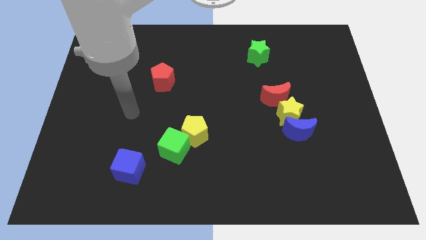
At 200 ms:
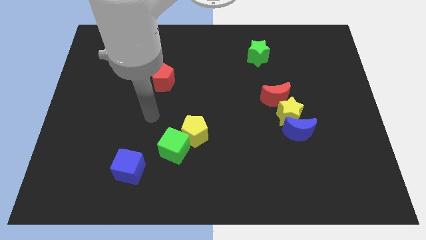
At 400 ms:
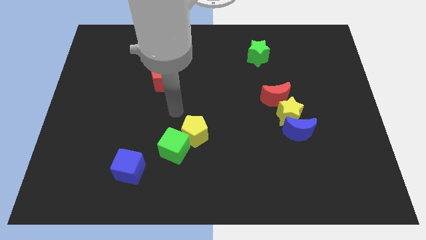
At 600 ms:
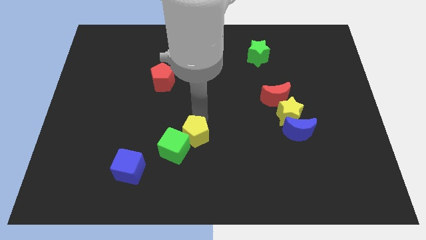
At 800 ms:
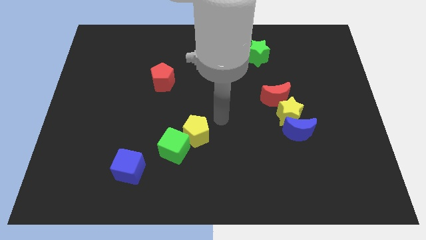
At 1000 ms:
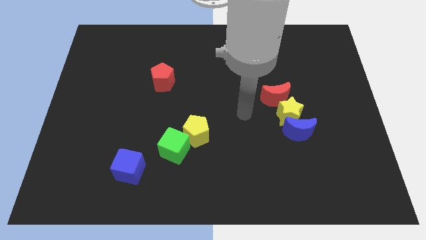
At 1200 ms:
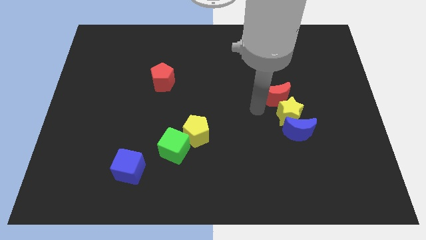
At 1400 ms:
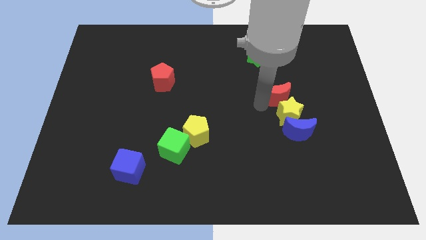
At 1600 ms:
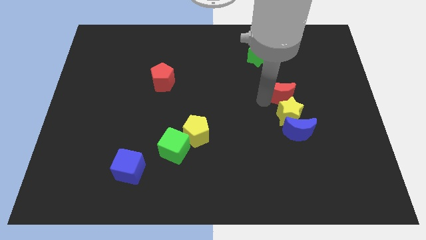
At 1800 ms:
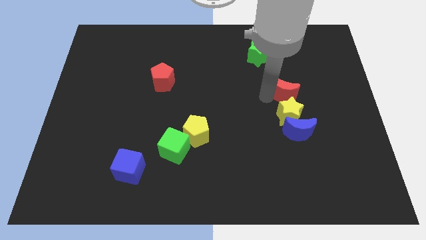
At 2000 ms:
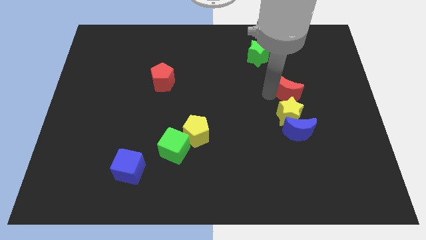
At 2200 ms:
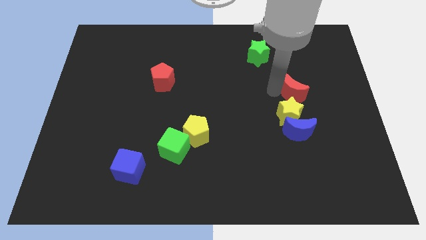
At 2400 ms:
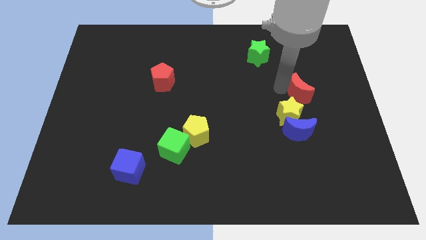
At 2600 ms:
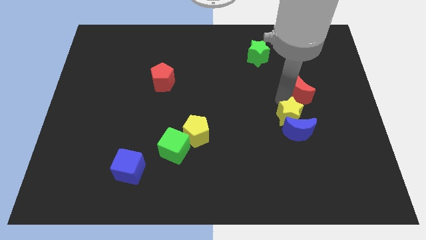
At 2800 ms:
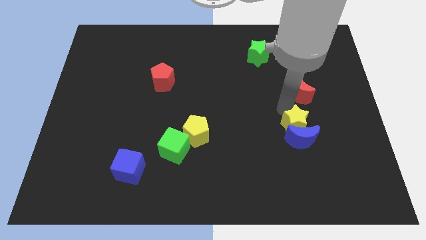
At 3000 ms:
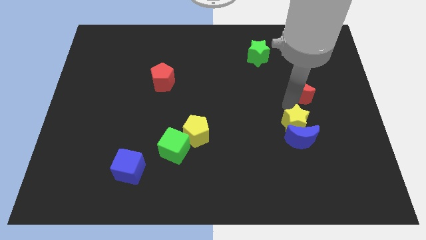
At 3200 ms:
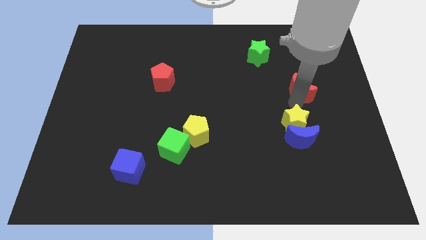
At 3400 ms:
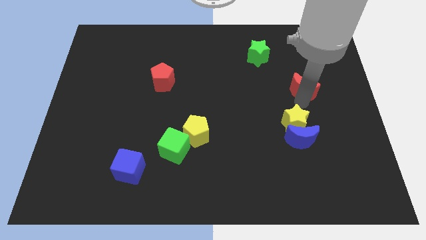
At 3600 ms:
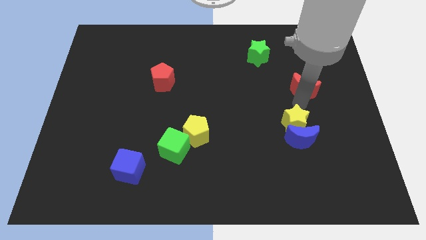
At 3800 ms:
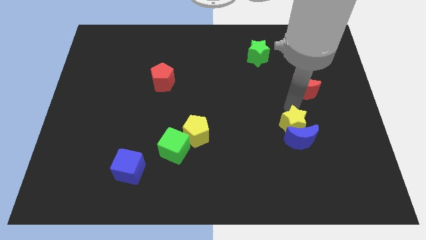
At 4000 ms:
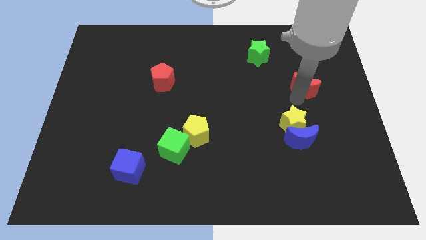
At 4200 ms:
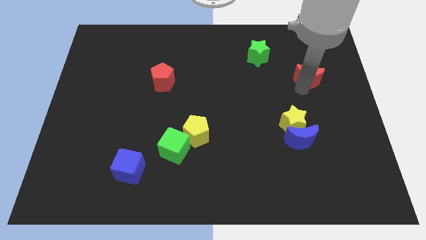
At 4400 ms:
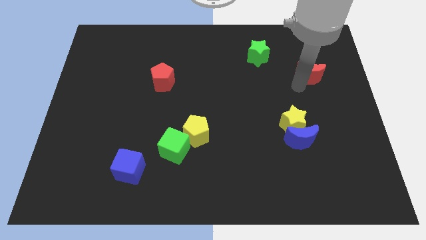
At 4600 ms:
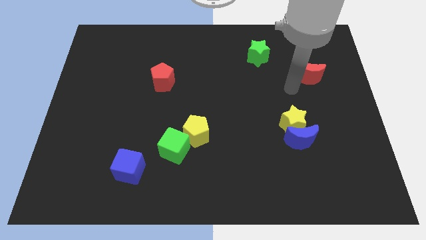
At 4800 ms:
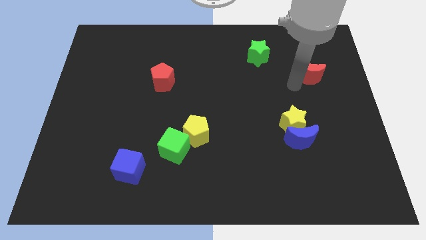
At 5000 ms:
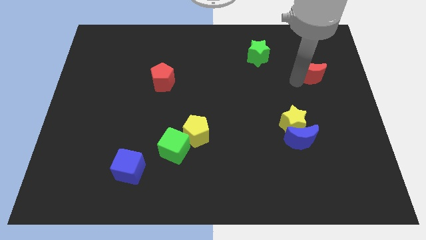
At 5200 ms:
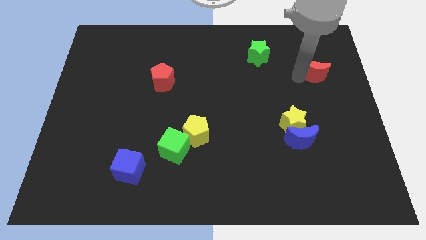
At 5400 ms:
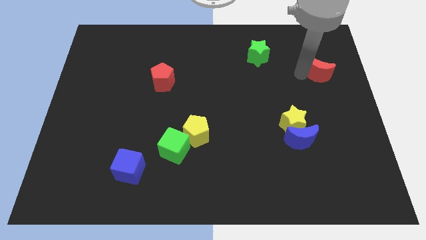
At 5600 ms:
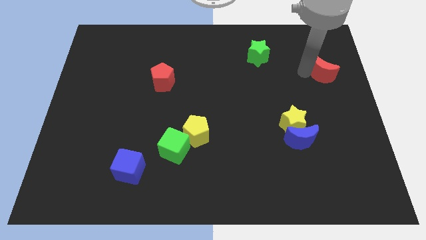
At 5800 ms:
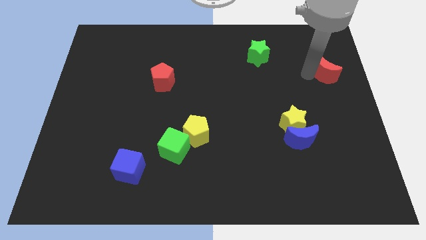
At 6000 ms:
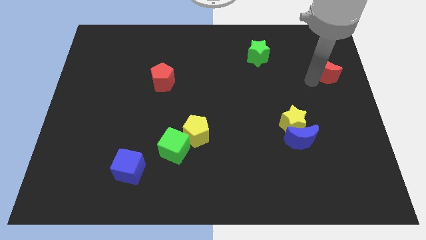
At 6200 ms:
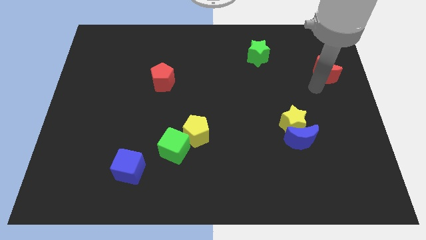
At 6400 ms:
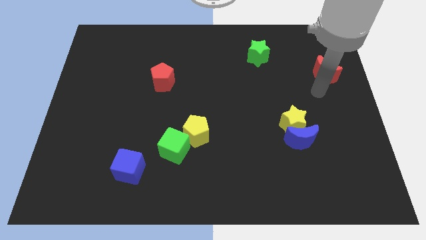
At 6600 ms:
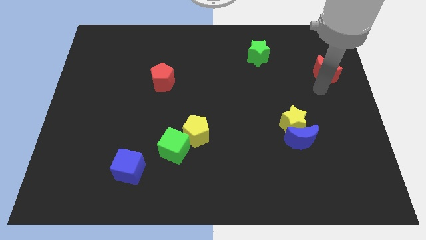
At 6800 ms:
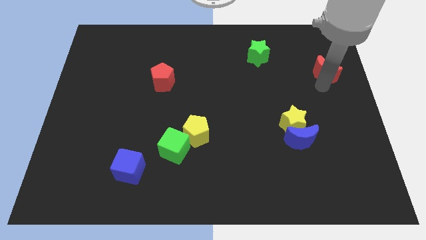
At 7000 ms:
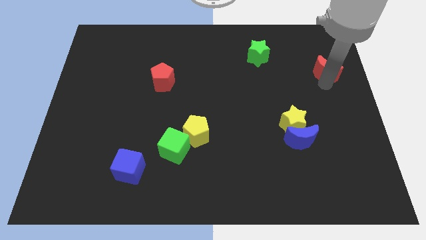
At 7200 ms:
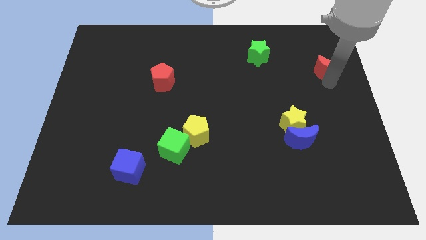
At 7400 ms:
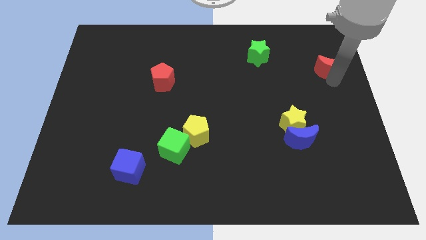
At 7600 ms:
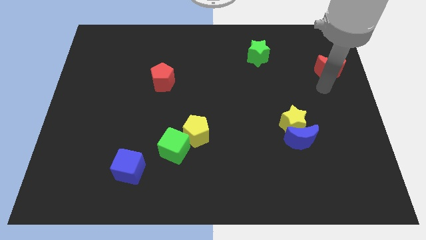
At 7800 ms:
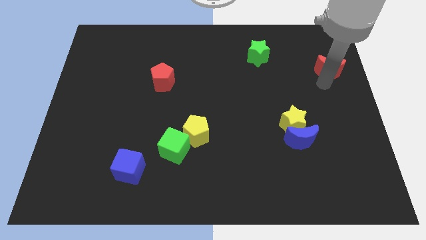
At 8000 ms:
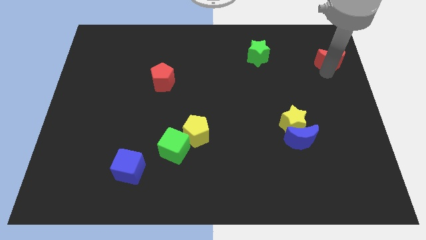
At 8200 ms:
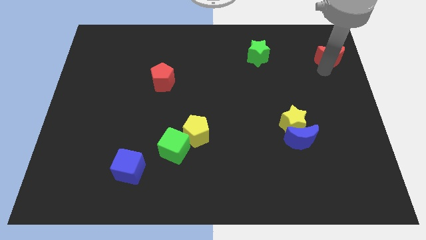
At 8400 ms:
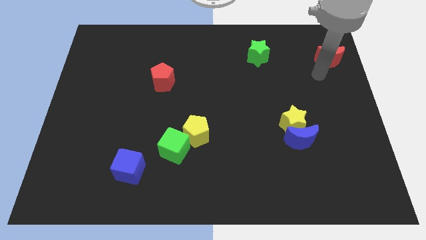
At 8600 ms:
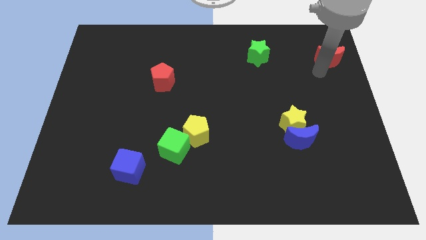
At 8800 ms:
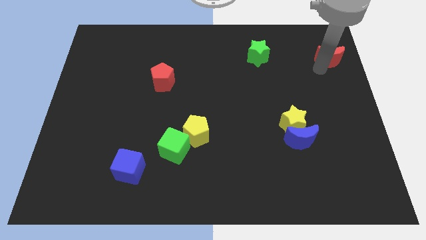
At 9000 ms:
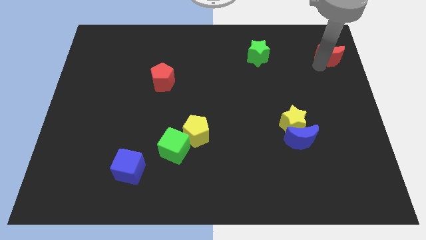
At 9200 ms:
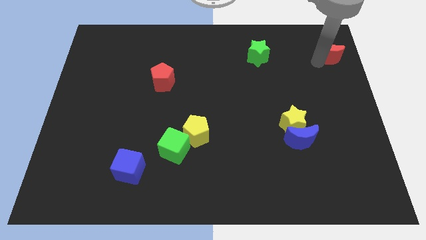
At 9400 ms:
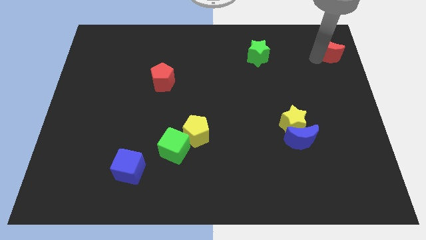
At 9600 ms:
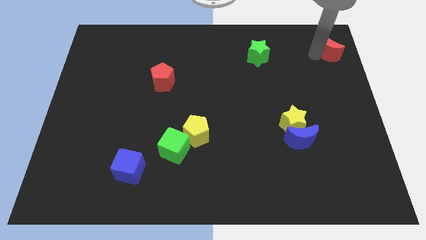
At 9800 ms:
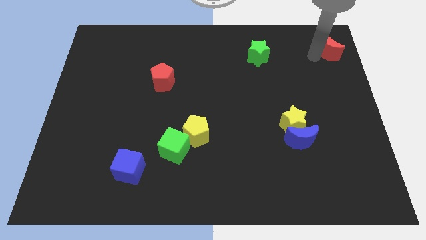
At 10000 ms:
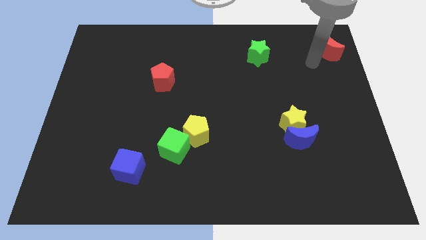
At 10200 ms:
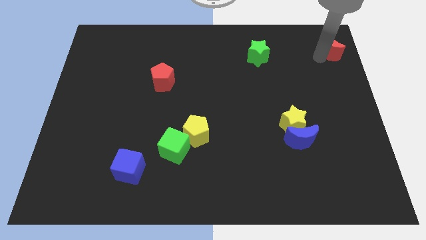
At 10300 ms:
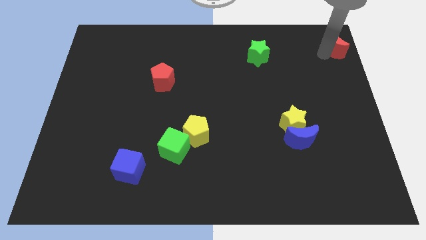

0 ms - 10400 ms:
move the red moon to the top right of the board

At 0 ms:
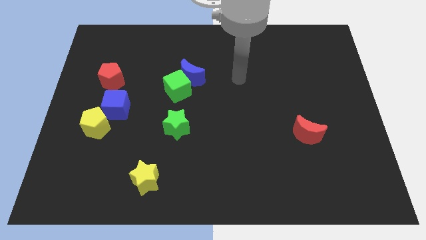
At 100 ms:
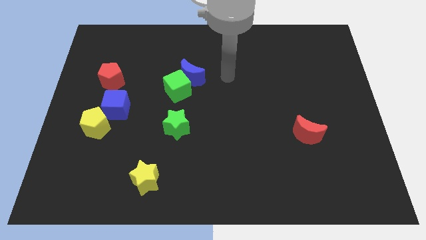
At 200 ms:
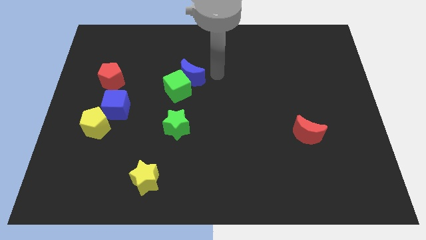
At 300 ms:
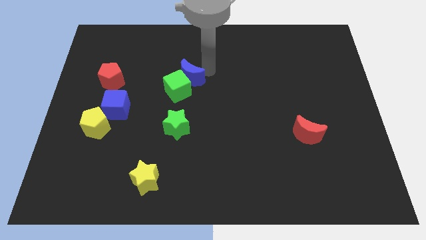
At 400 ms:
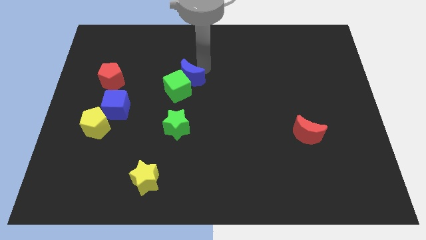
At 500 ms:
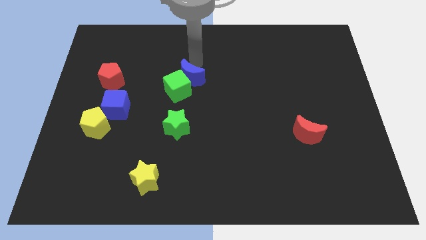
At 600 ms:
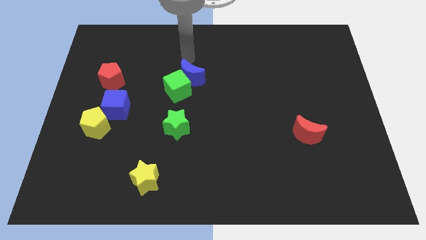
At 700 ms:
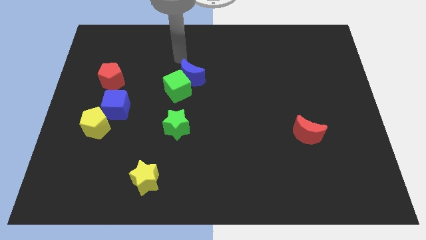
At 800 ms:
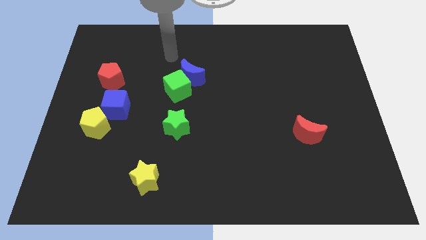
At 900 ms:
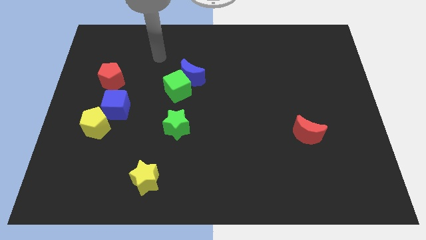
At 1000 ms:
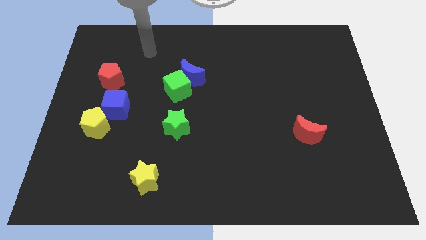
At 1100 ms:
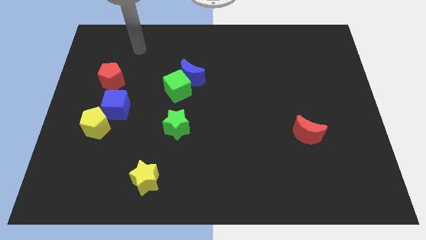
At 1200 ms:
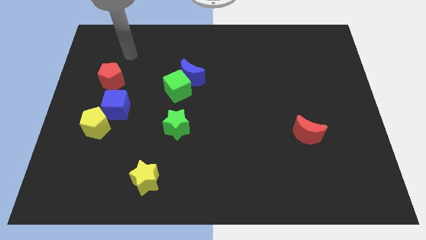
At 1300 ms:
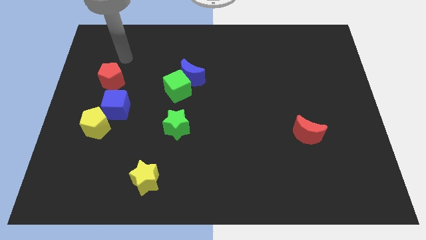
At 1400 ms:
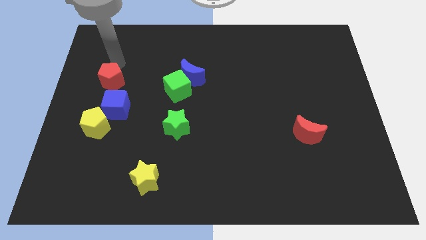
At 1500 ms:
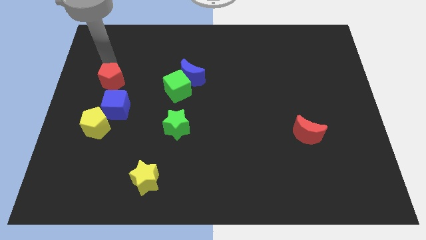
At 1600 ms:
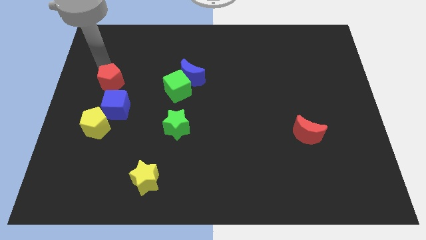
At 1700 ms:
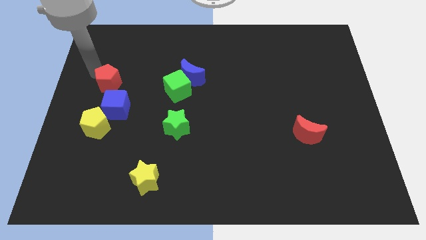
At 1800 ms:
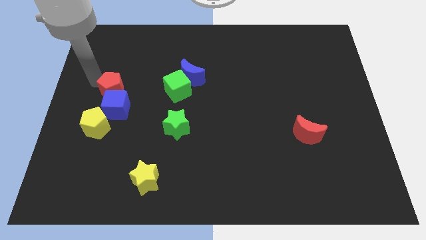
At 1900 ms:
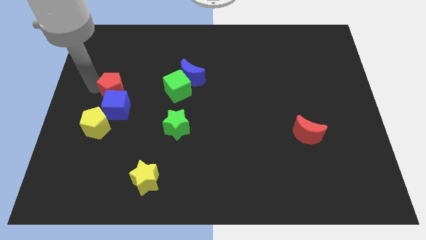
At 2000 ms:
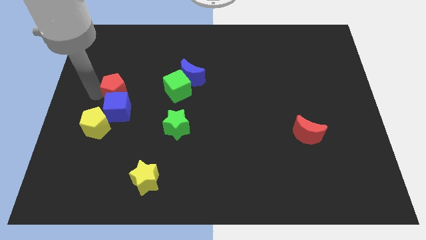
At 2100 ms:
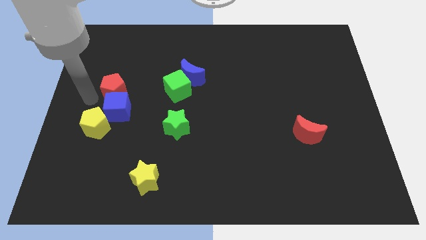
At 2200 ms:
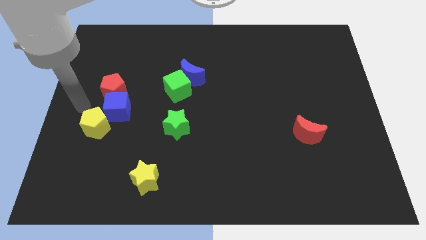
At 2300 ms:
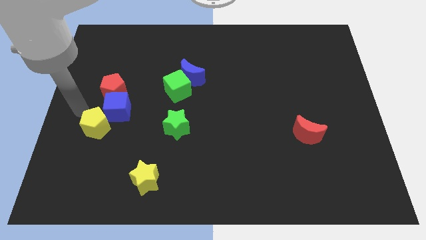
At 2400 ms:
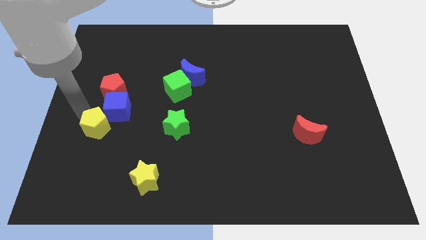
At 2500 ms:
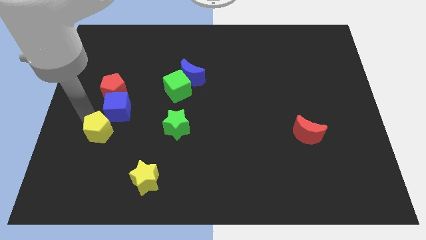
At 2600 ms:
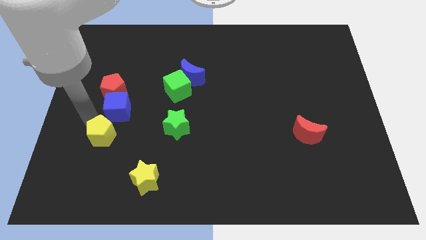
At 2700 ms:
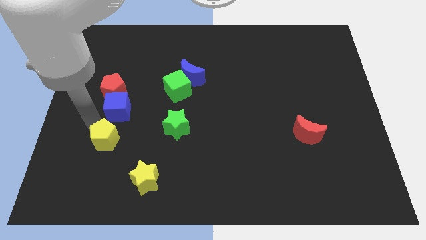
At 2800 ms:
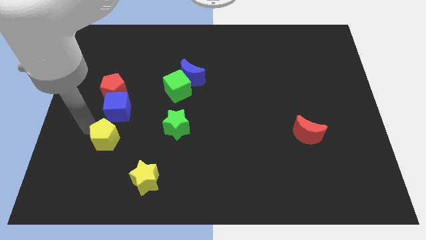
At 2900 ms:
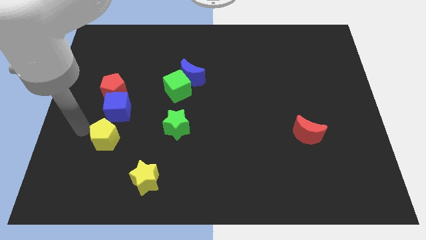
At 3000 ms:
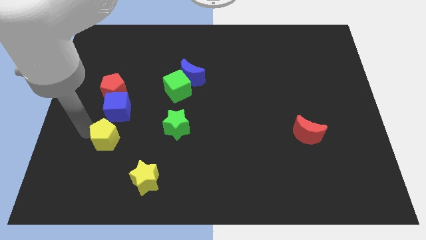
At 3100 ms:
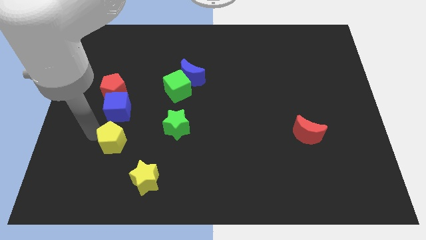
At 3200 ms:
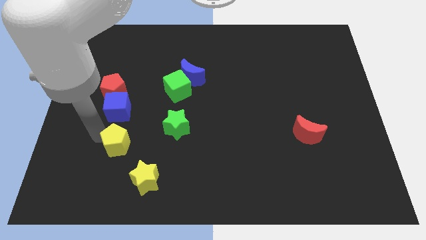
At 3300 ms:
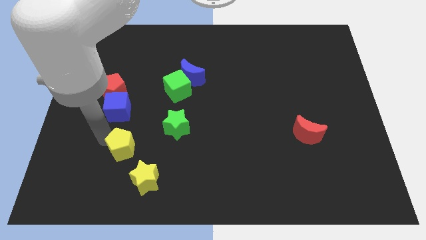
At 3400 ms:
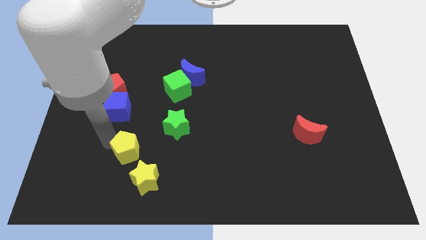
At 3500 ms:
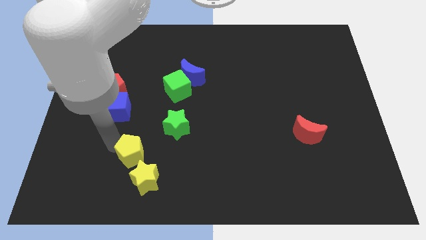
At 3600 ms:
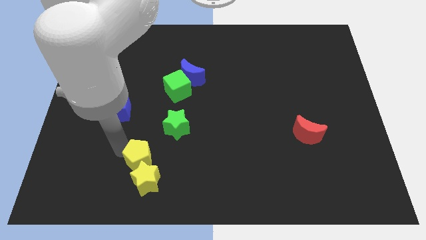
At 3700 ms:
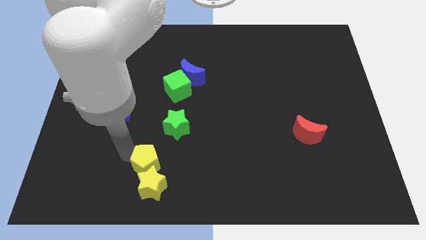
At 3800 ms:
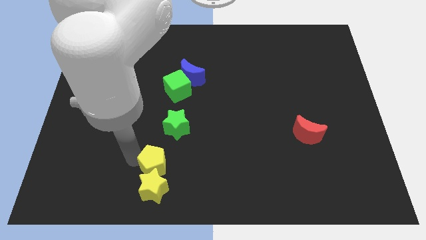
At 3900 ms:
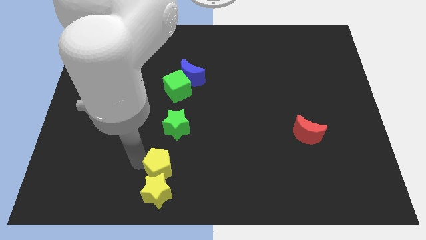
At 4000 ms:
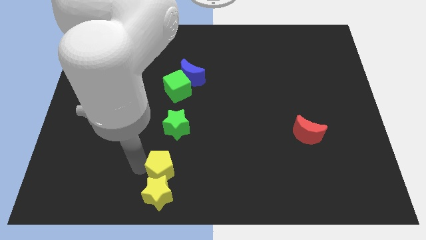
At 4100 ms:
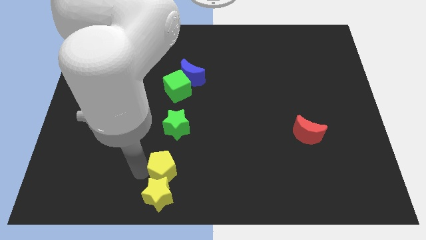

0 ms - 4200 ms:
put the yellow pentagon to the bottom side
